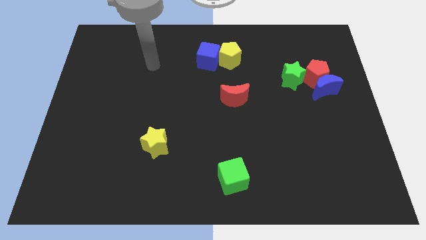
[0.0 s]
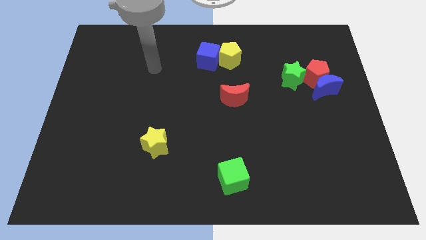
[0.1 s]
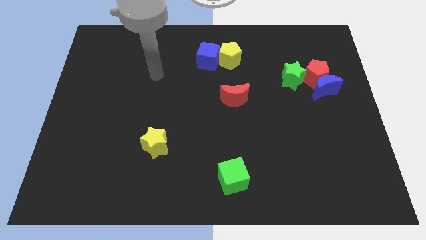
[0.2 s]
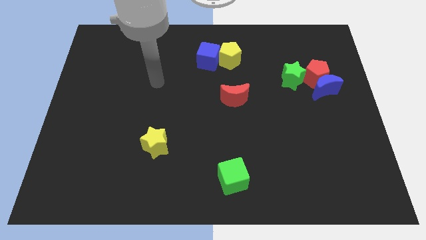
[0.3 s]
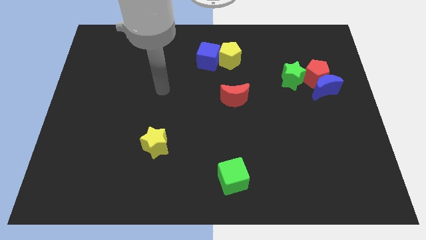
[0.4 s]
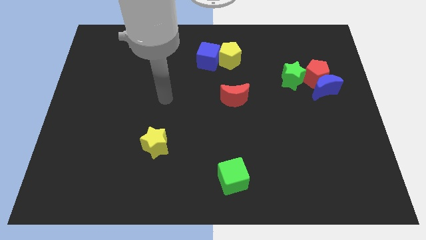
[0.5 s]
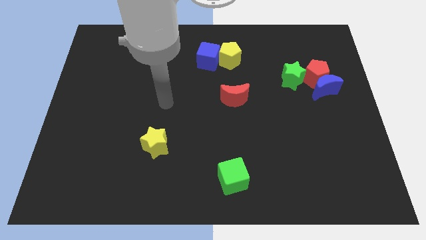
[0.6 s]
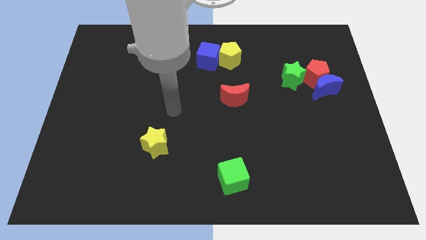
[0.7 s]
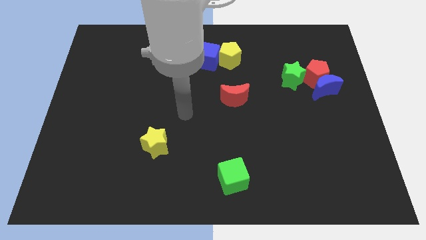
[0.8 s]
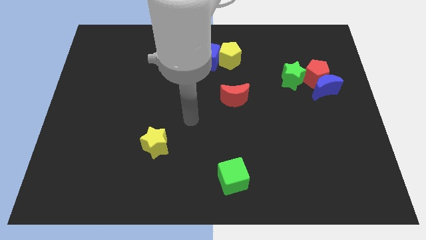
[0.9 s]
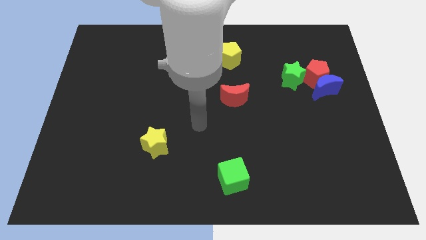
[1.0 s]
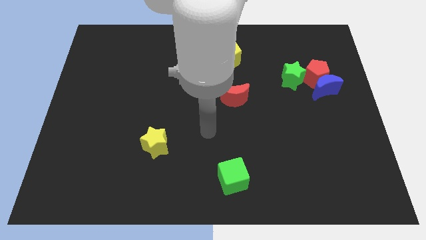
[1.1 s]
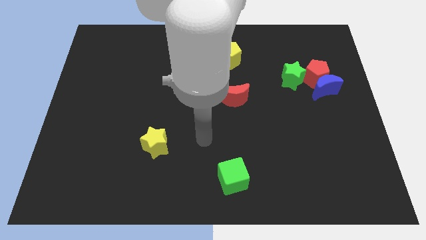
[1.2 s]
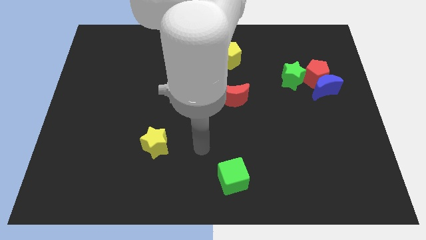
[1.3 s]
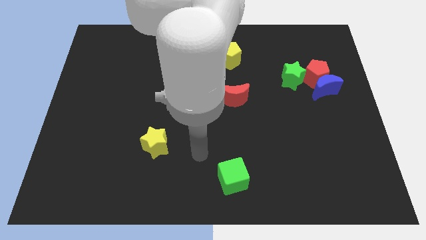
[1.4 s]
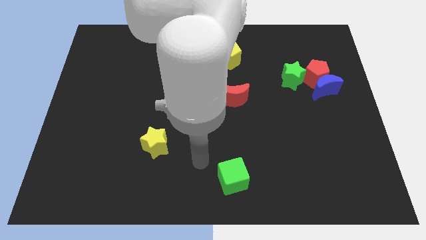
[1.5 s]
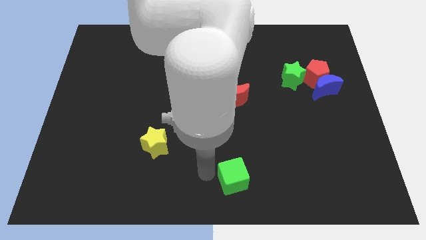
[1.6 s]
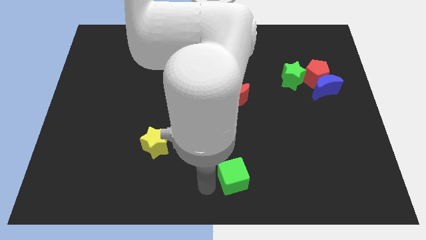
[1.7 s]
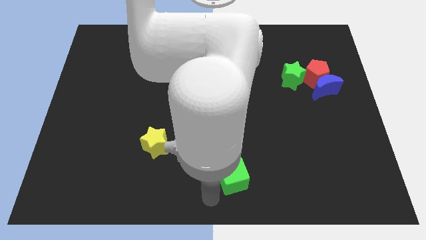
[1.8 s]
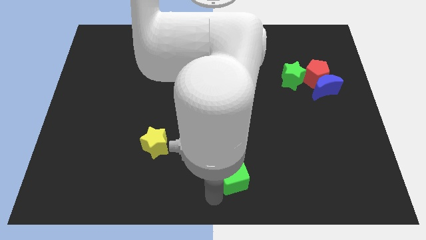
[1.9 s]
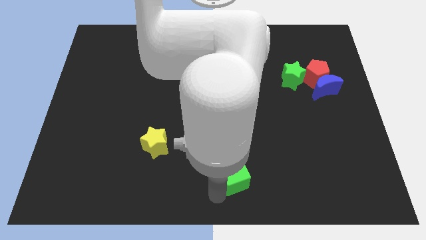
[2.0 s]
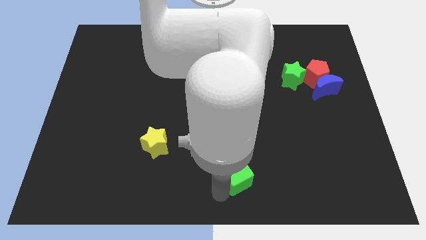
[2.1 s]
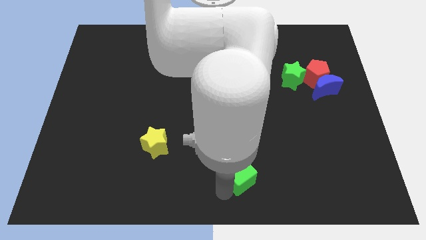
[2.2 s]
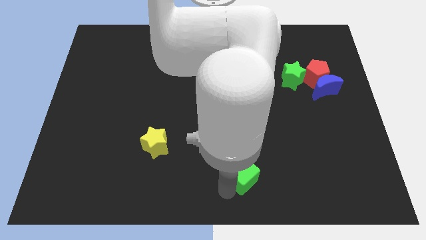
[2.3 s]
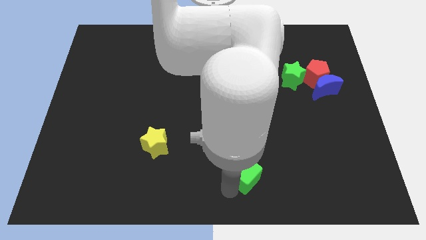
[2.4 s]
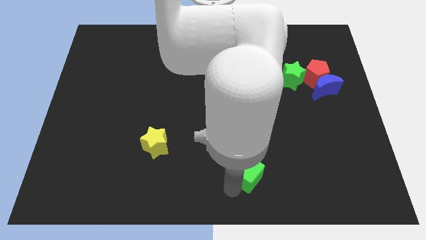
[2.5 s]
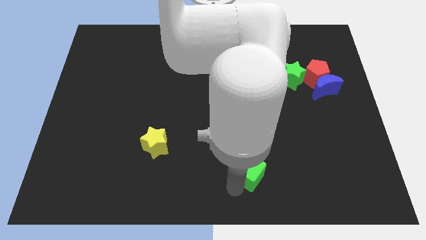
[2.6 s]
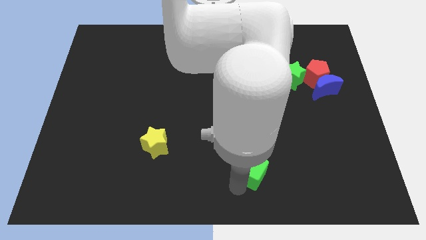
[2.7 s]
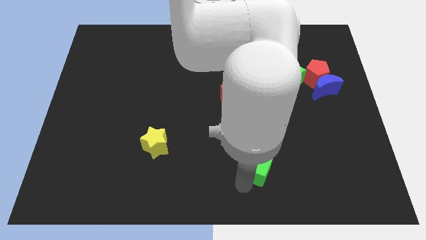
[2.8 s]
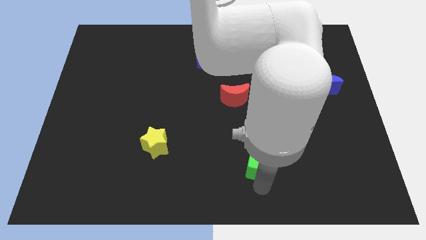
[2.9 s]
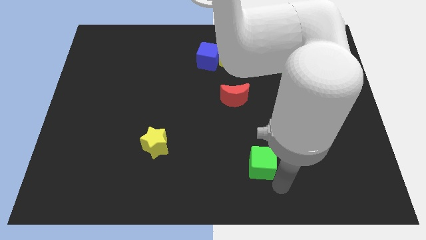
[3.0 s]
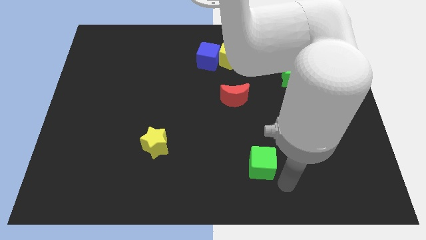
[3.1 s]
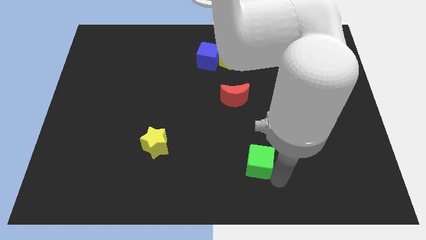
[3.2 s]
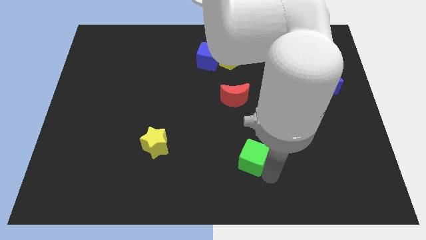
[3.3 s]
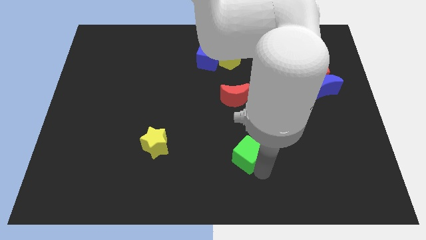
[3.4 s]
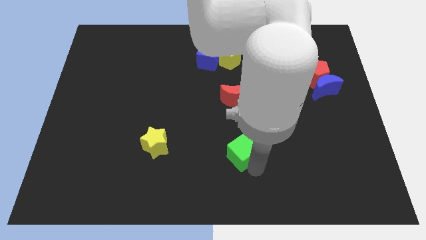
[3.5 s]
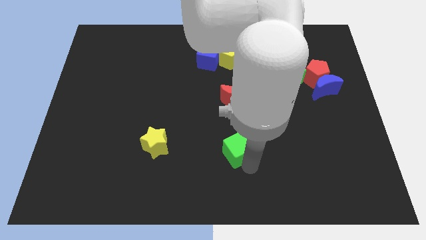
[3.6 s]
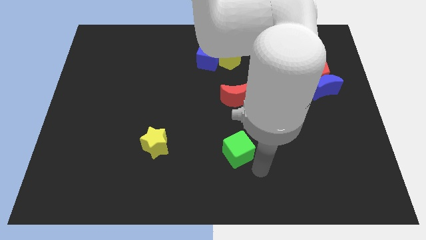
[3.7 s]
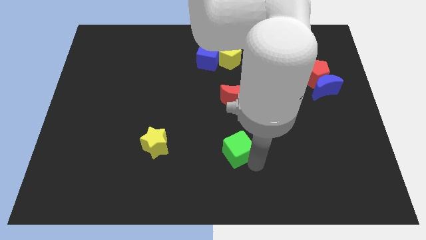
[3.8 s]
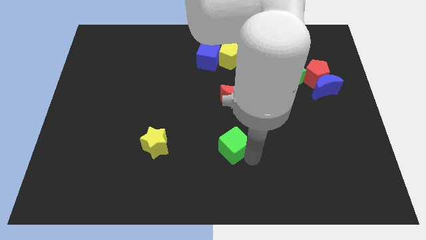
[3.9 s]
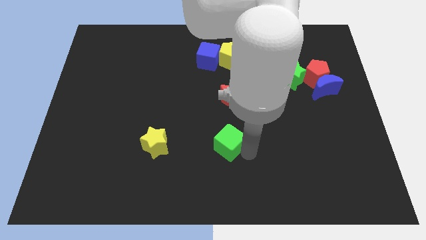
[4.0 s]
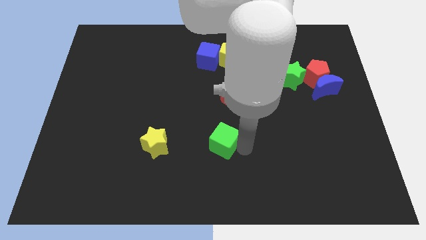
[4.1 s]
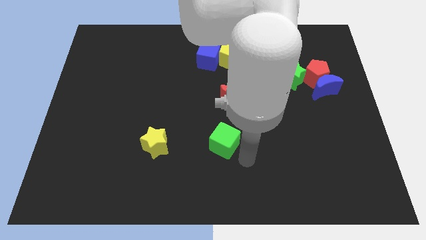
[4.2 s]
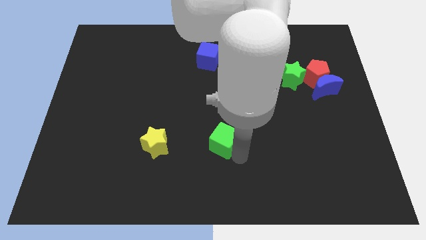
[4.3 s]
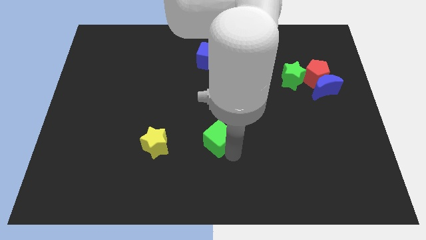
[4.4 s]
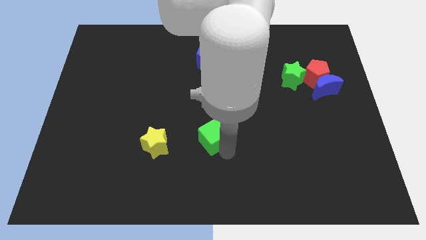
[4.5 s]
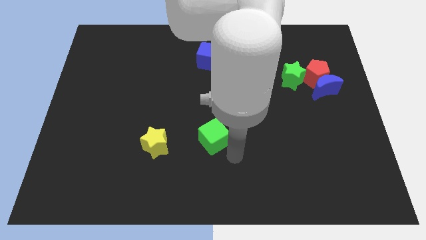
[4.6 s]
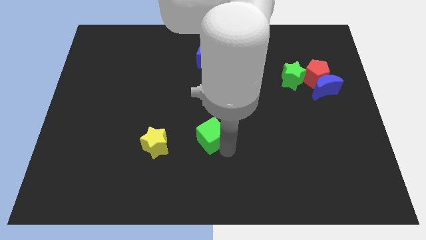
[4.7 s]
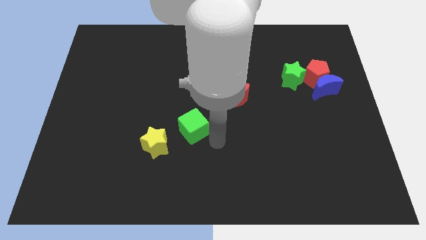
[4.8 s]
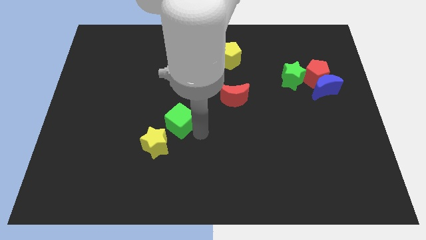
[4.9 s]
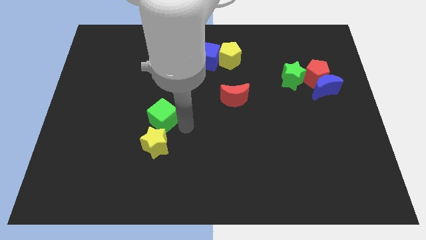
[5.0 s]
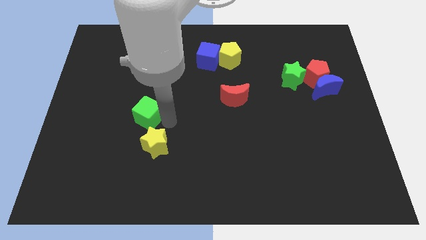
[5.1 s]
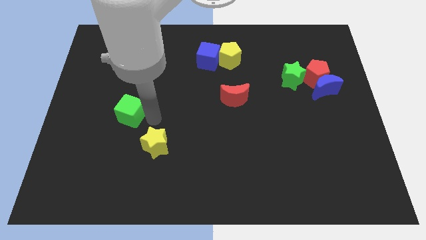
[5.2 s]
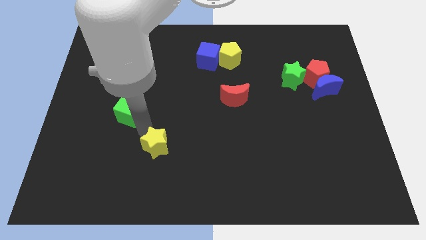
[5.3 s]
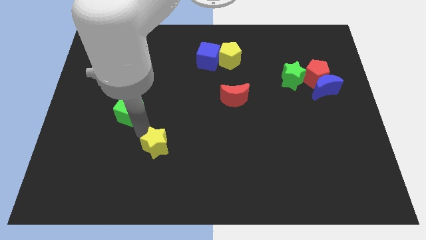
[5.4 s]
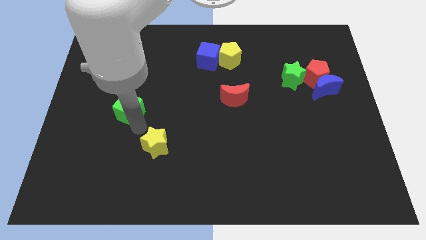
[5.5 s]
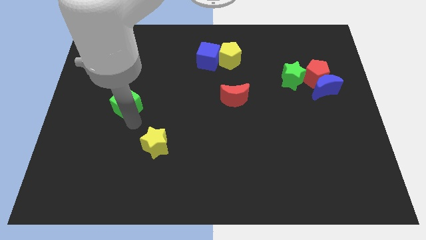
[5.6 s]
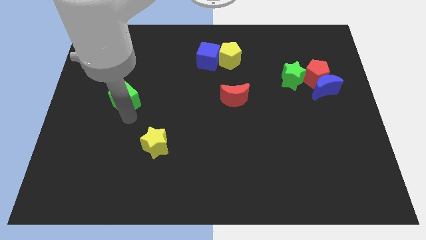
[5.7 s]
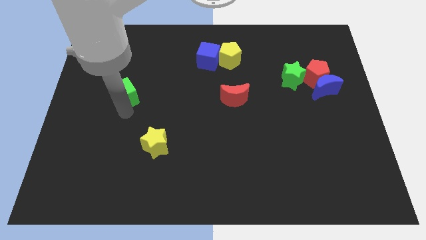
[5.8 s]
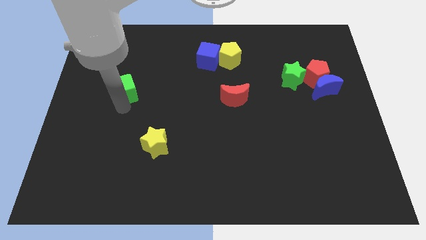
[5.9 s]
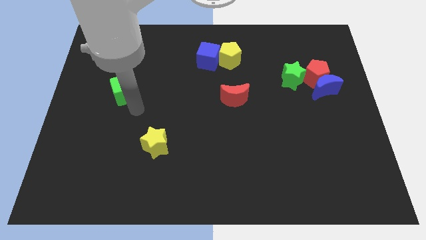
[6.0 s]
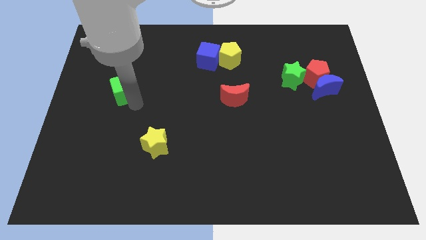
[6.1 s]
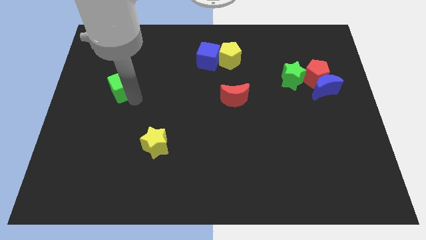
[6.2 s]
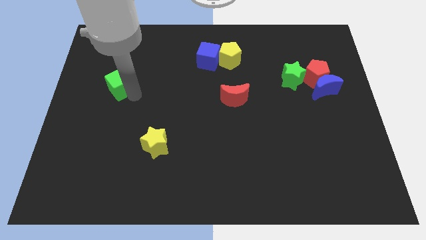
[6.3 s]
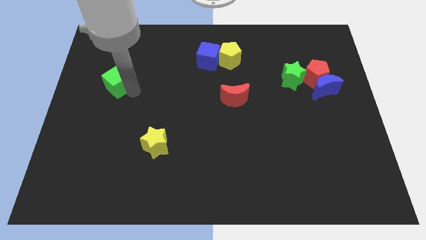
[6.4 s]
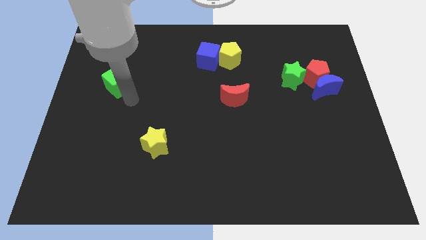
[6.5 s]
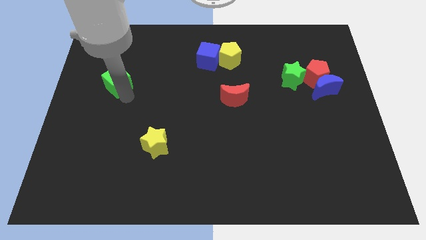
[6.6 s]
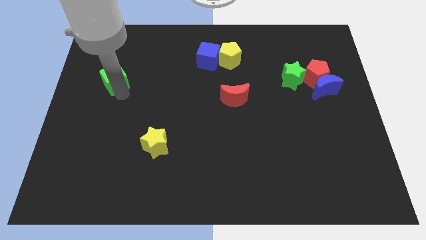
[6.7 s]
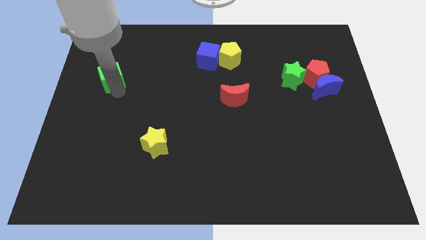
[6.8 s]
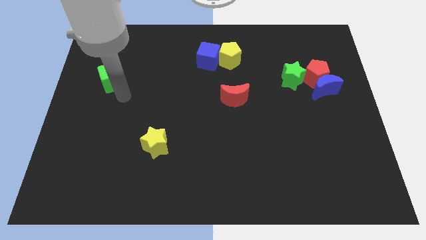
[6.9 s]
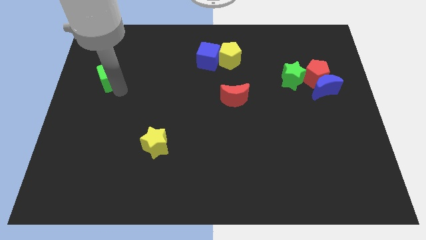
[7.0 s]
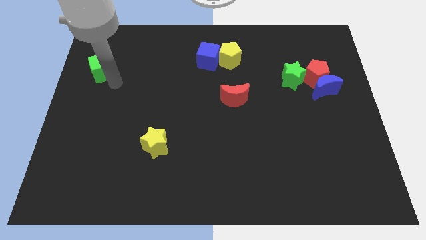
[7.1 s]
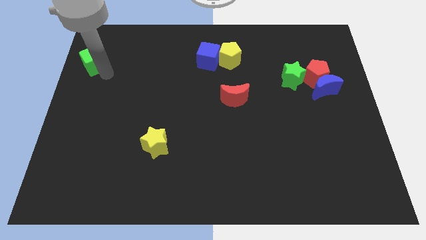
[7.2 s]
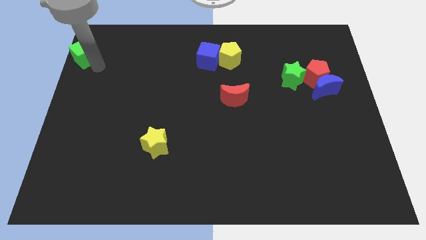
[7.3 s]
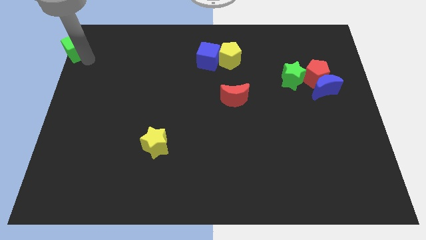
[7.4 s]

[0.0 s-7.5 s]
put the green cube to the top left
